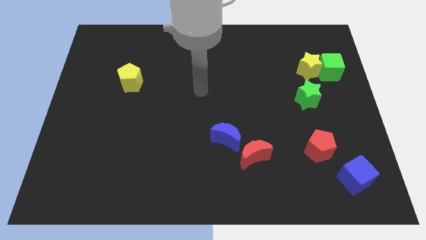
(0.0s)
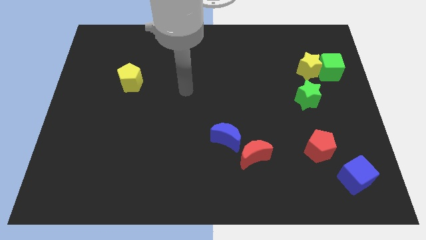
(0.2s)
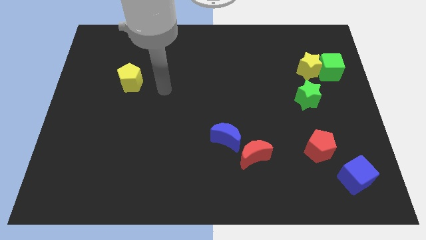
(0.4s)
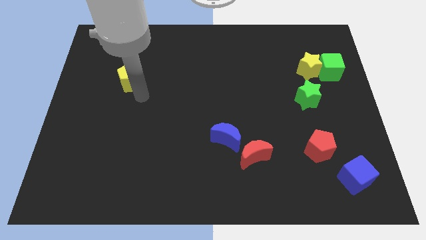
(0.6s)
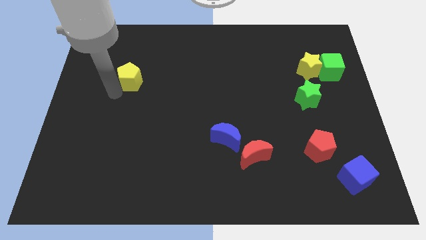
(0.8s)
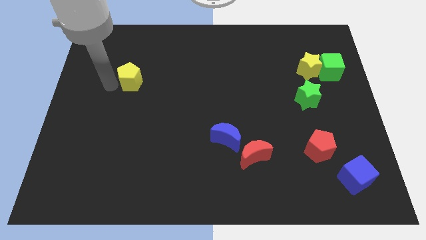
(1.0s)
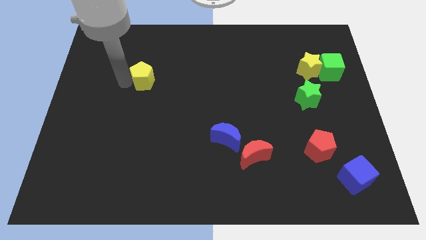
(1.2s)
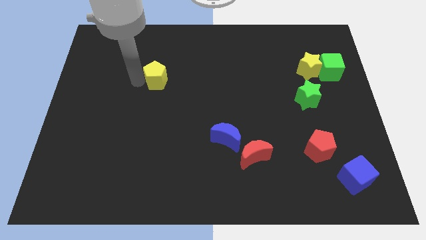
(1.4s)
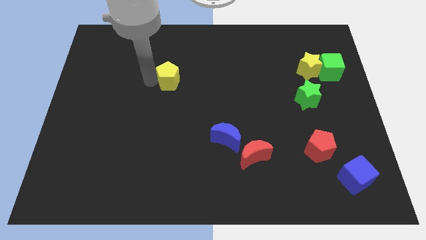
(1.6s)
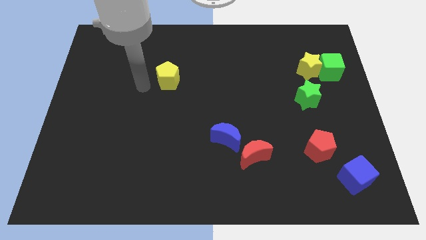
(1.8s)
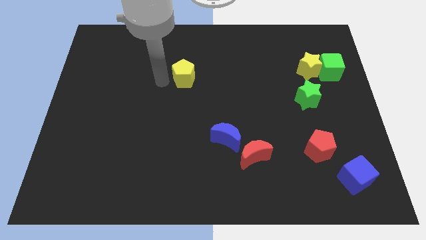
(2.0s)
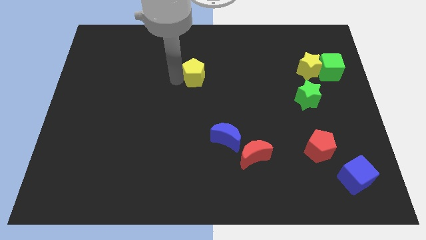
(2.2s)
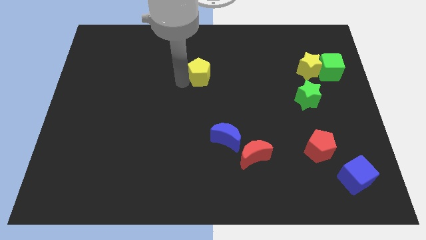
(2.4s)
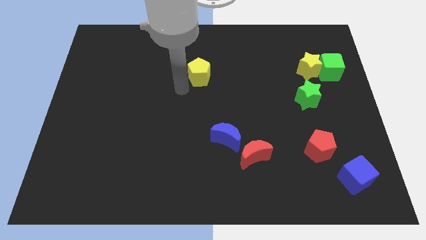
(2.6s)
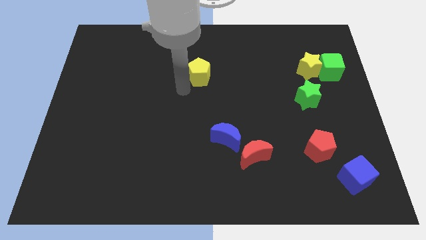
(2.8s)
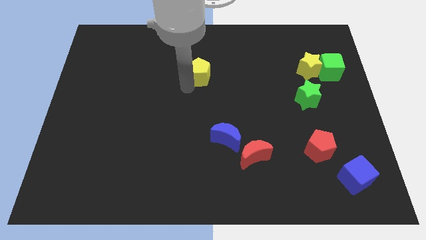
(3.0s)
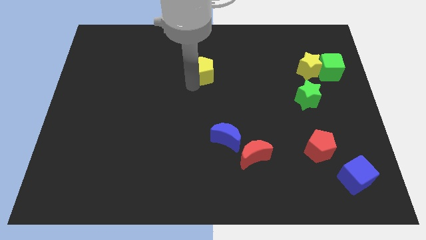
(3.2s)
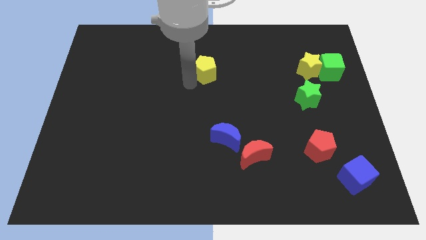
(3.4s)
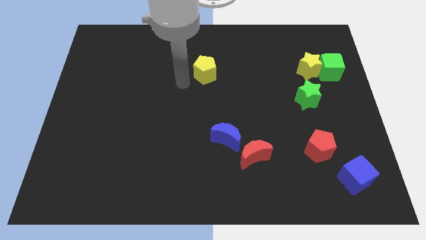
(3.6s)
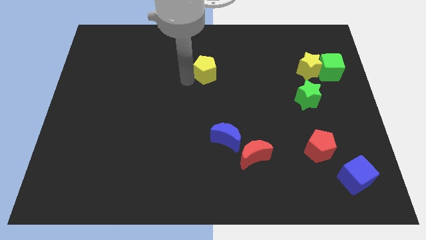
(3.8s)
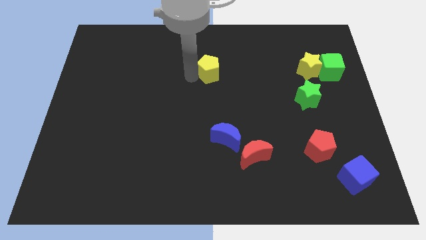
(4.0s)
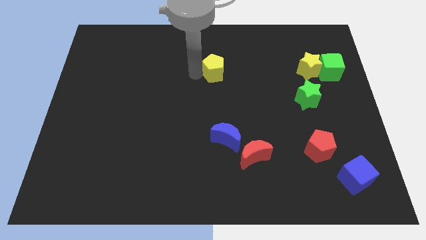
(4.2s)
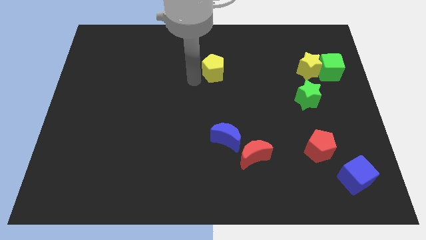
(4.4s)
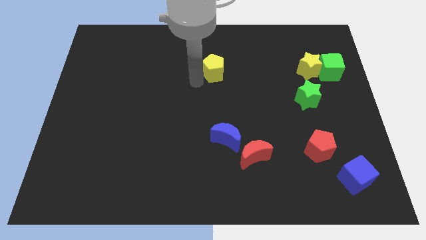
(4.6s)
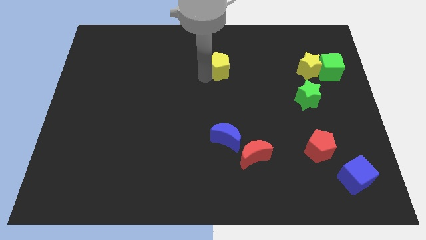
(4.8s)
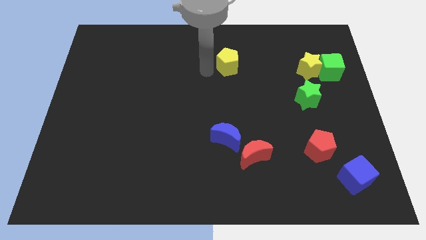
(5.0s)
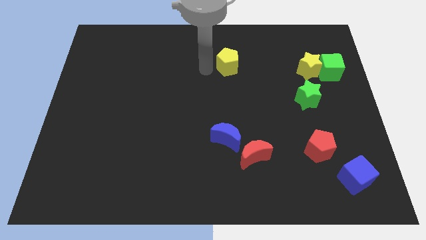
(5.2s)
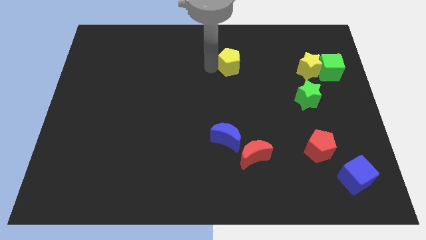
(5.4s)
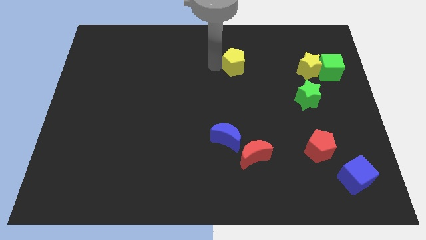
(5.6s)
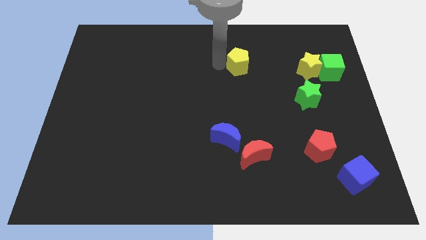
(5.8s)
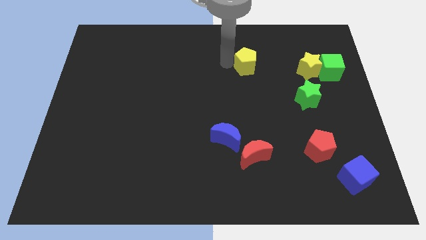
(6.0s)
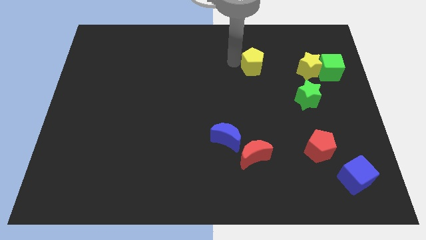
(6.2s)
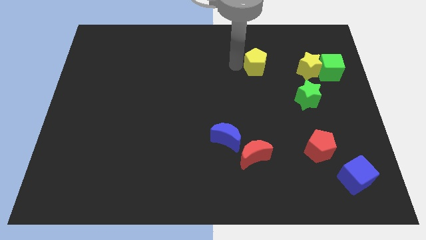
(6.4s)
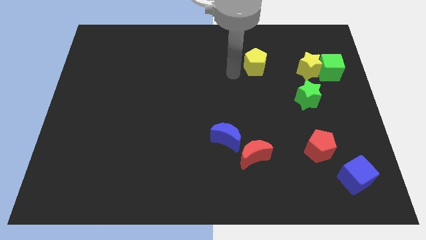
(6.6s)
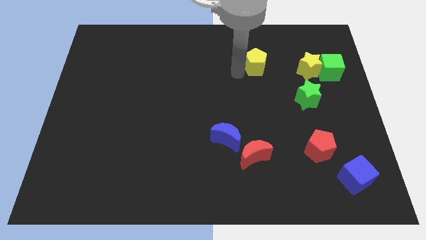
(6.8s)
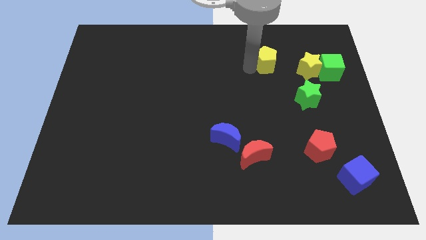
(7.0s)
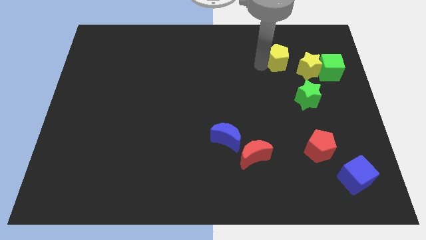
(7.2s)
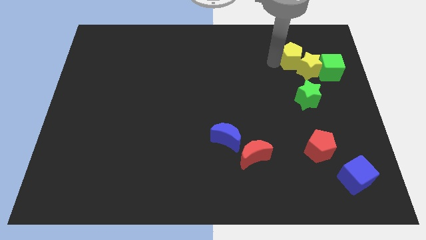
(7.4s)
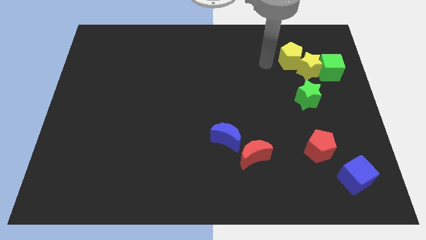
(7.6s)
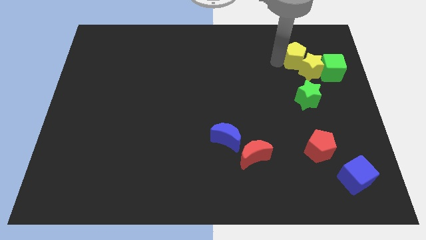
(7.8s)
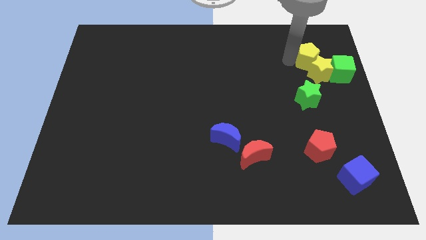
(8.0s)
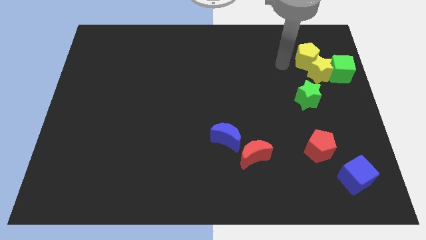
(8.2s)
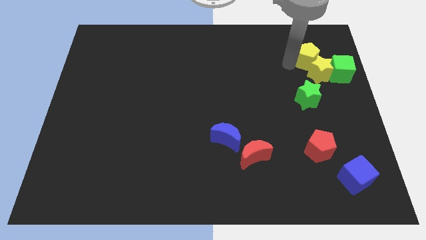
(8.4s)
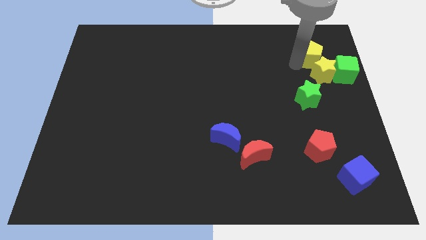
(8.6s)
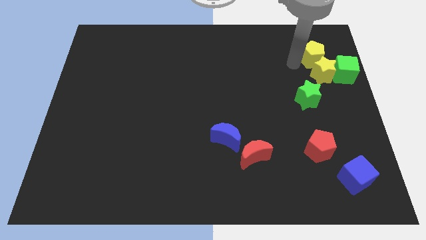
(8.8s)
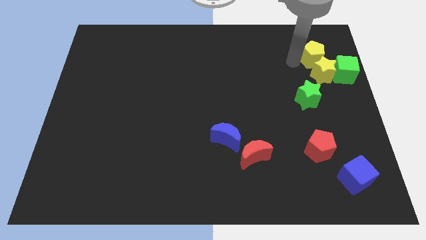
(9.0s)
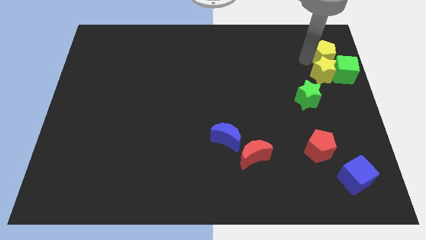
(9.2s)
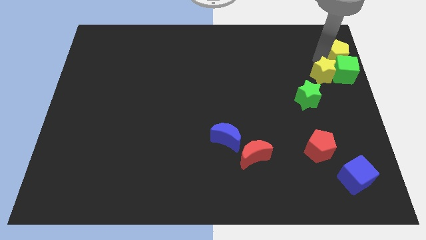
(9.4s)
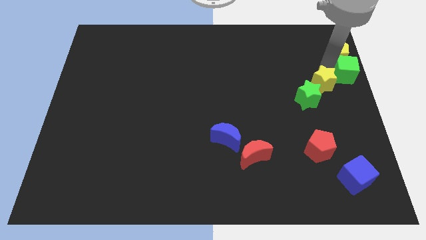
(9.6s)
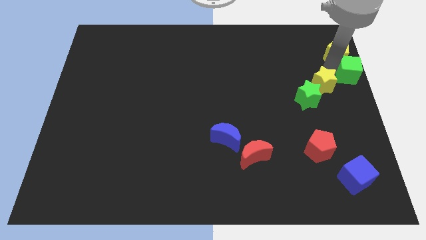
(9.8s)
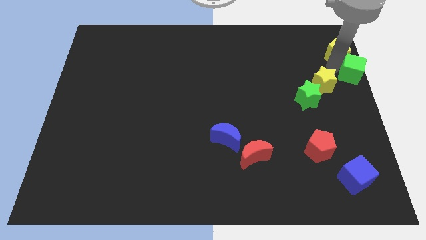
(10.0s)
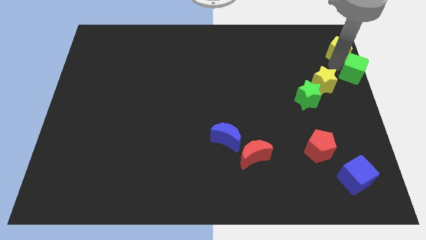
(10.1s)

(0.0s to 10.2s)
move the yellow pentagon to the upper right corner

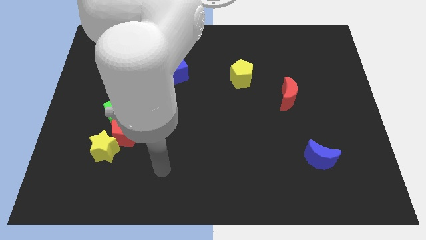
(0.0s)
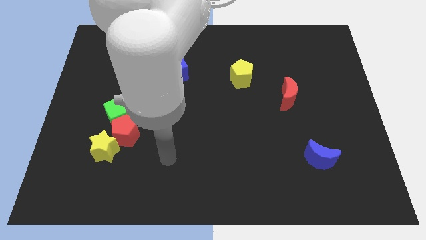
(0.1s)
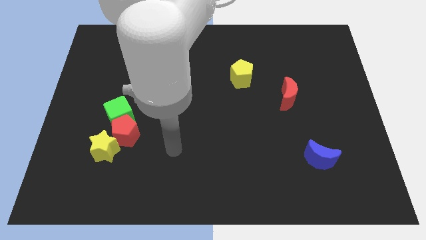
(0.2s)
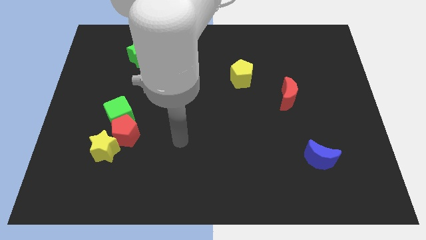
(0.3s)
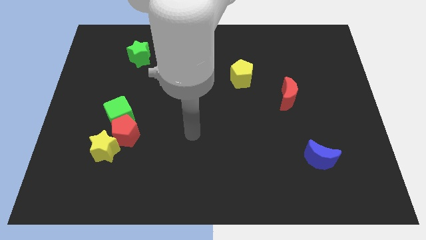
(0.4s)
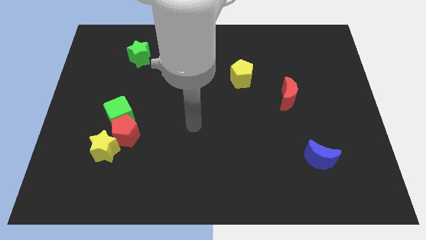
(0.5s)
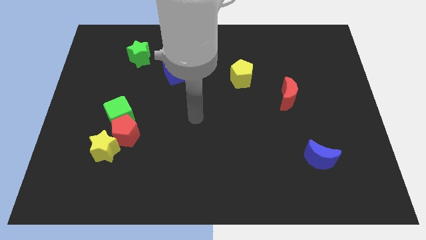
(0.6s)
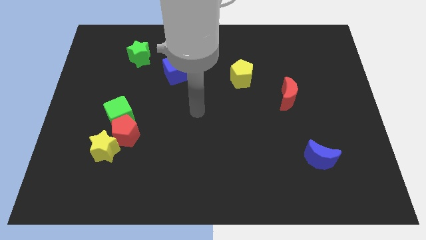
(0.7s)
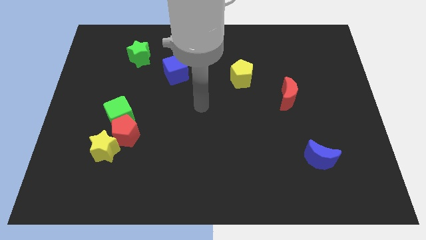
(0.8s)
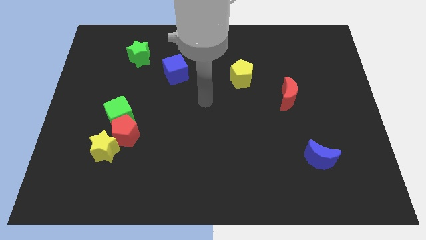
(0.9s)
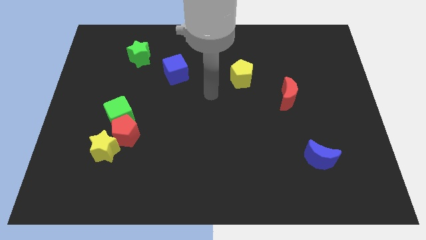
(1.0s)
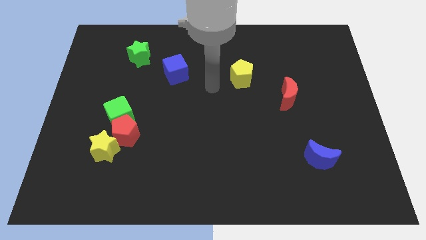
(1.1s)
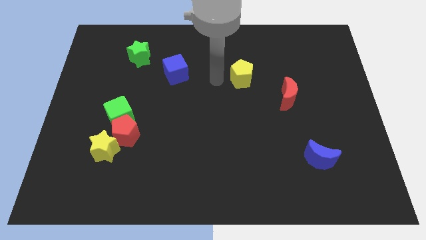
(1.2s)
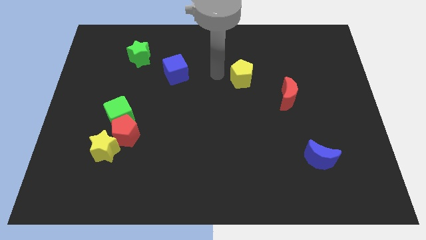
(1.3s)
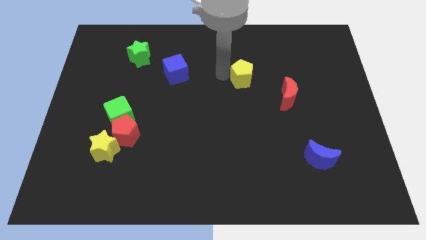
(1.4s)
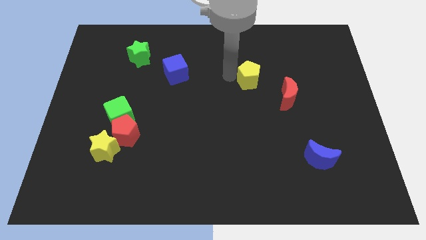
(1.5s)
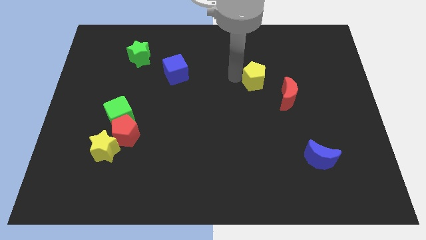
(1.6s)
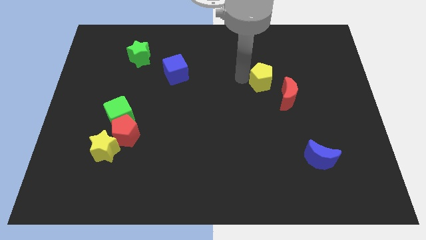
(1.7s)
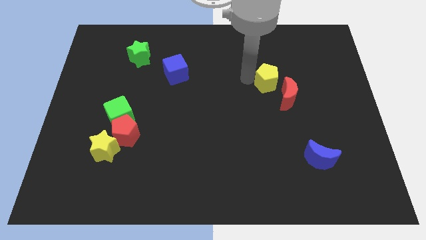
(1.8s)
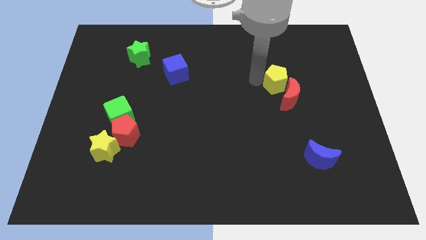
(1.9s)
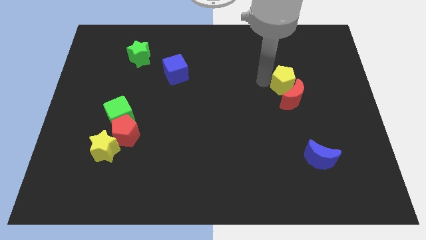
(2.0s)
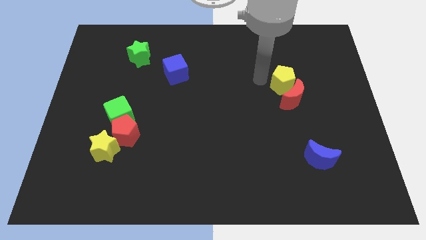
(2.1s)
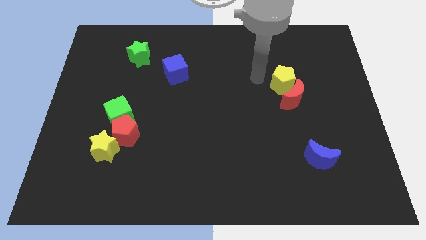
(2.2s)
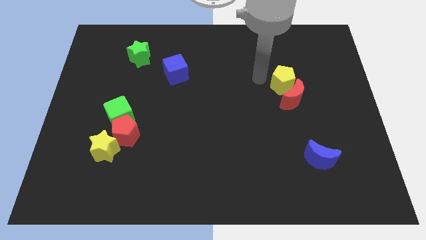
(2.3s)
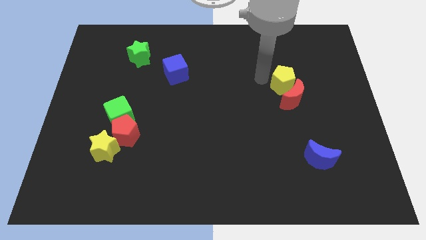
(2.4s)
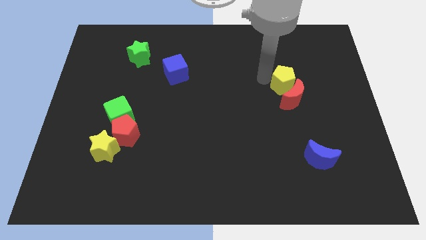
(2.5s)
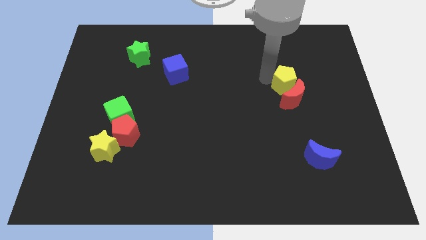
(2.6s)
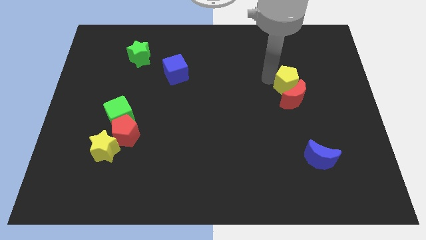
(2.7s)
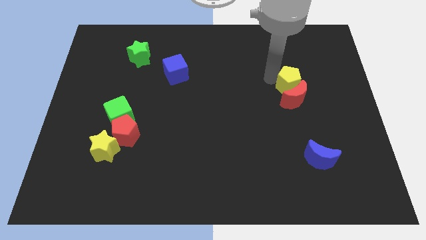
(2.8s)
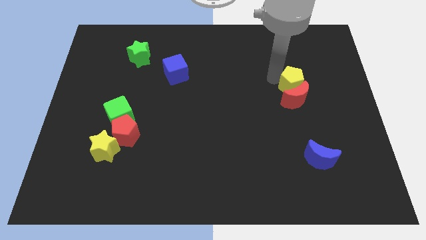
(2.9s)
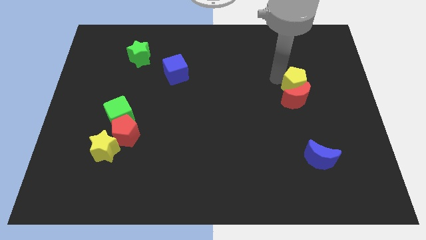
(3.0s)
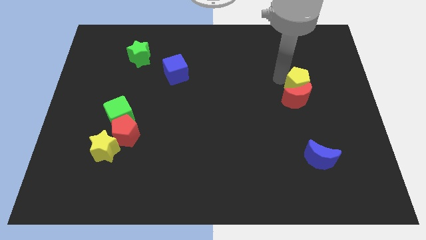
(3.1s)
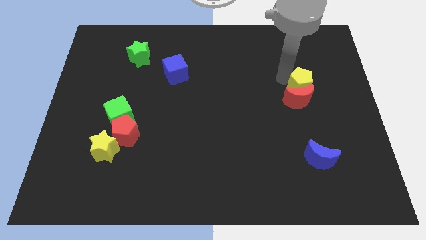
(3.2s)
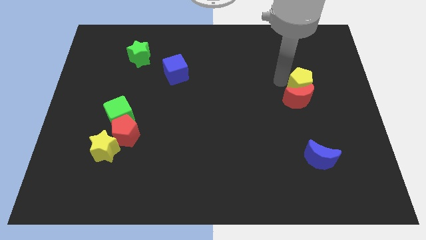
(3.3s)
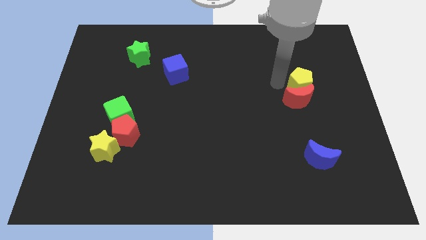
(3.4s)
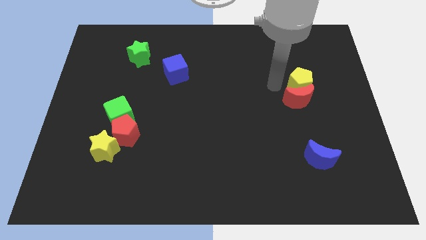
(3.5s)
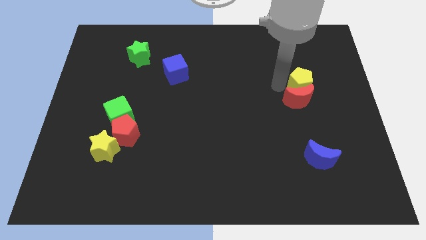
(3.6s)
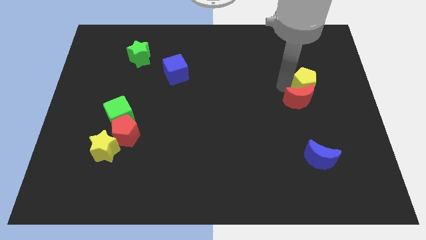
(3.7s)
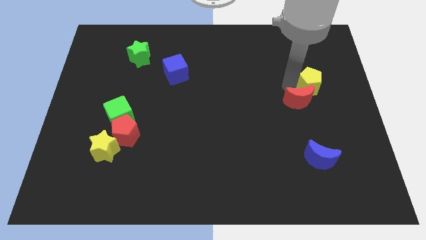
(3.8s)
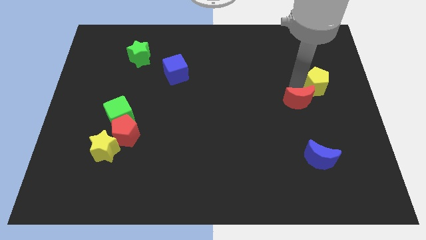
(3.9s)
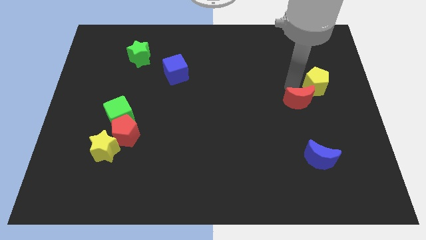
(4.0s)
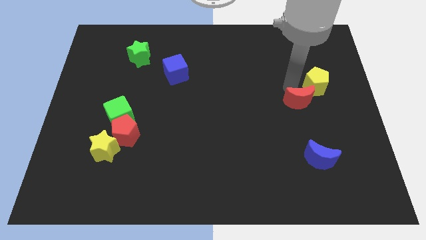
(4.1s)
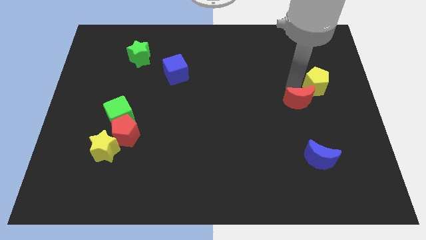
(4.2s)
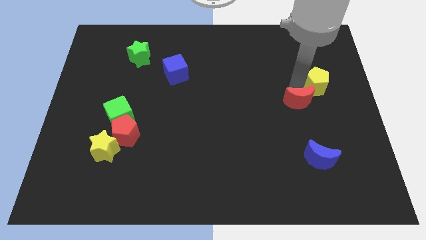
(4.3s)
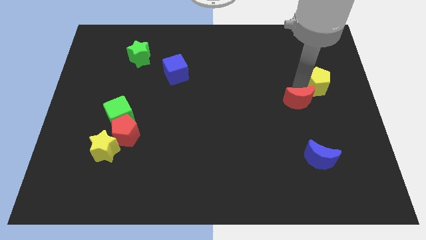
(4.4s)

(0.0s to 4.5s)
push the yellow pentagon to the right side of the board
